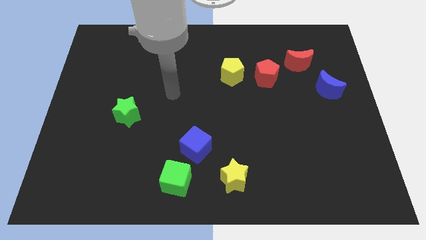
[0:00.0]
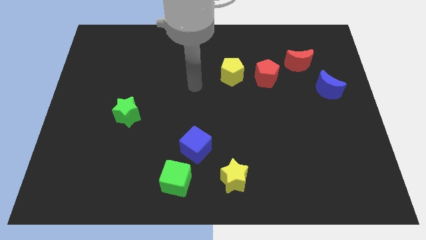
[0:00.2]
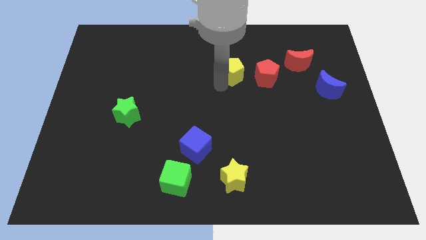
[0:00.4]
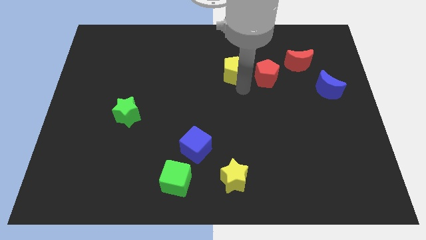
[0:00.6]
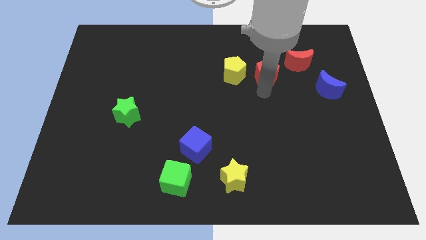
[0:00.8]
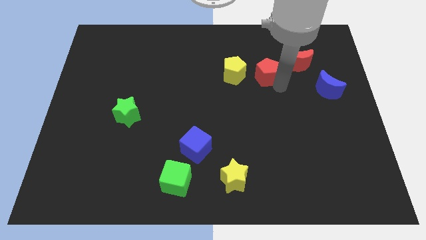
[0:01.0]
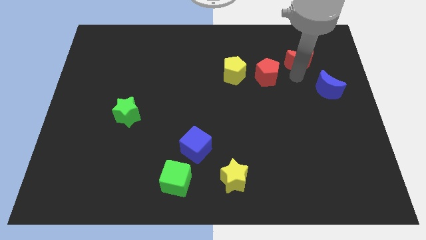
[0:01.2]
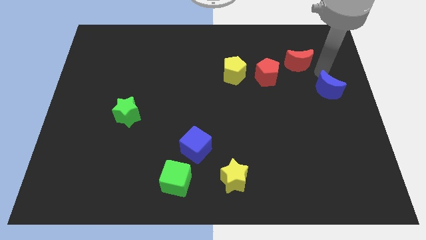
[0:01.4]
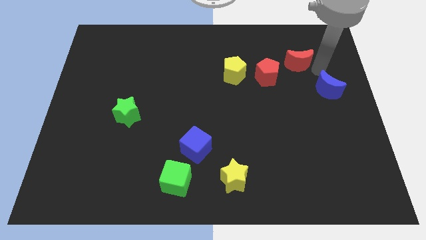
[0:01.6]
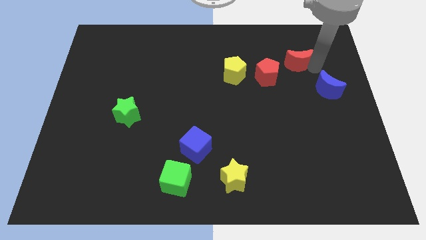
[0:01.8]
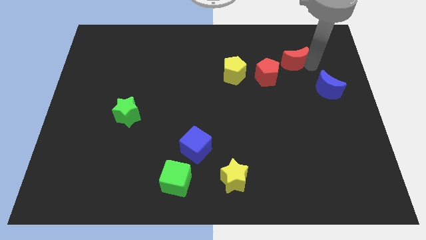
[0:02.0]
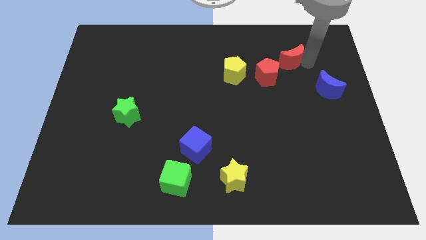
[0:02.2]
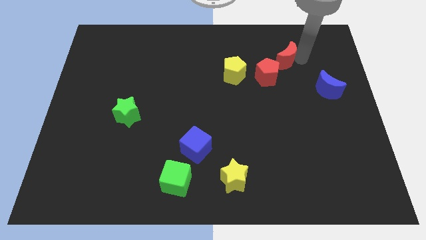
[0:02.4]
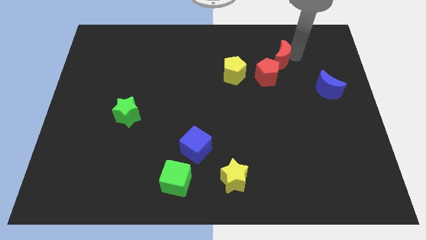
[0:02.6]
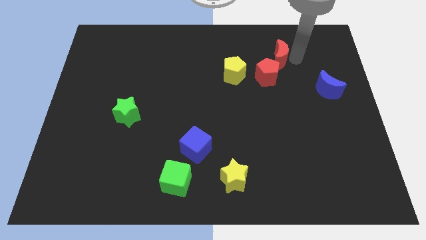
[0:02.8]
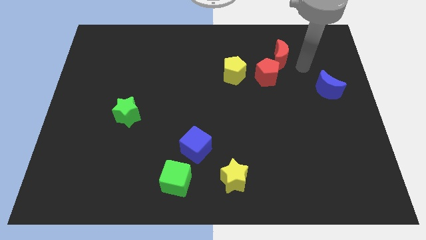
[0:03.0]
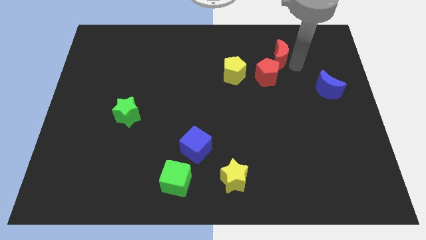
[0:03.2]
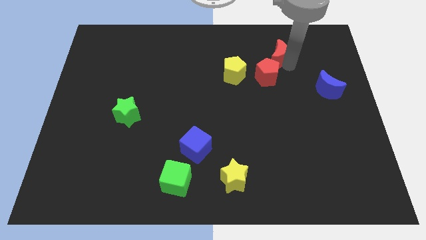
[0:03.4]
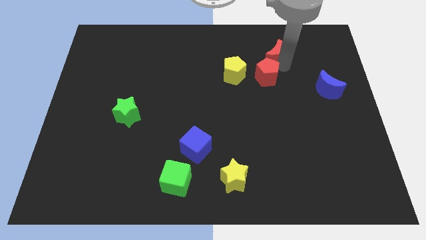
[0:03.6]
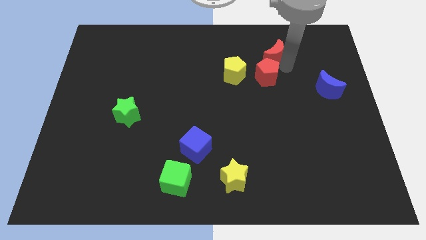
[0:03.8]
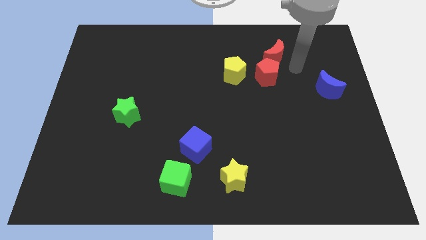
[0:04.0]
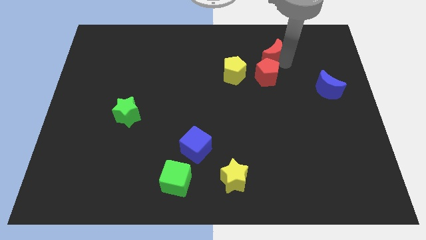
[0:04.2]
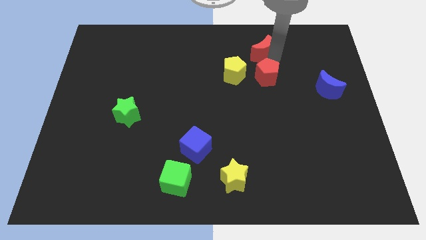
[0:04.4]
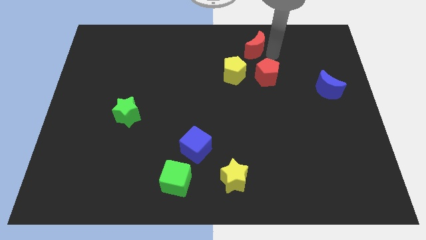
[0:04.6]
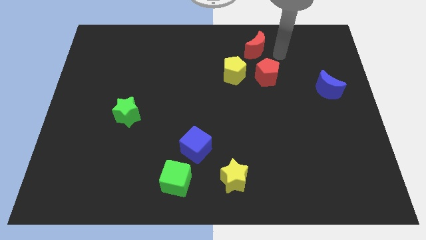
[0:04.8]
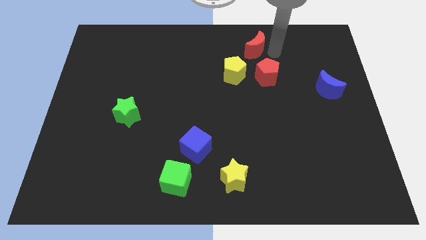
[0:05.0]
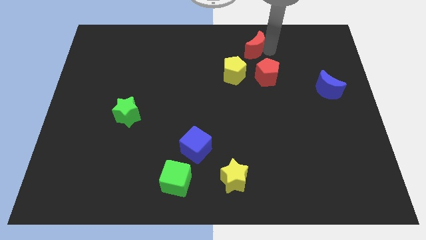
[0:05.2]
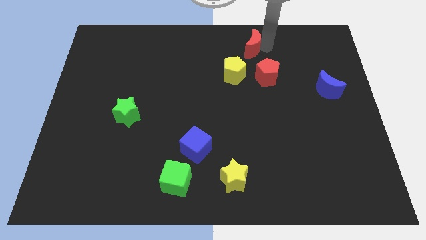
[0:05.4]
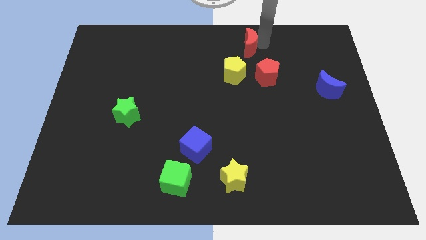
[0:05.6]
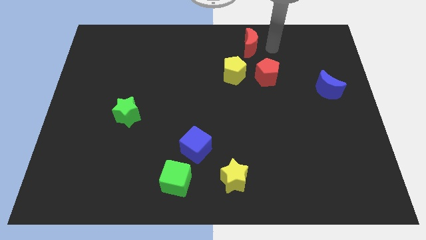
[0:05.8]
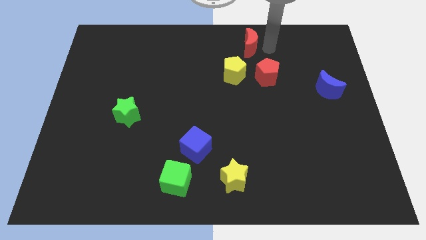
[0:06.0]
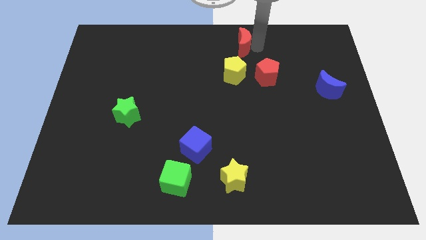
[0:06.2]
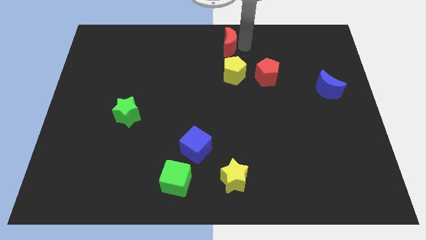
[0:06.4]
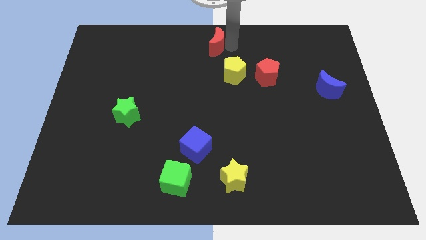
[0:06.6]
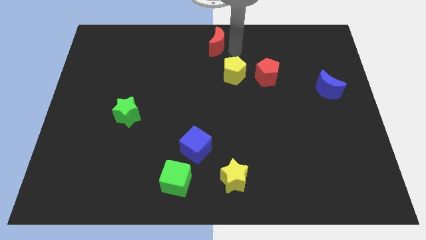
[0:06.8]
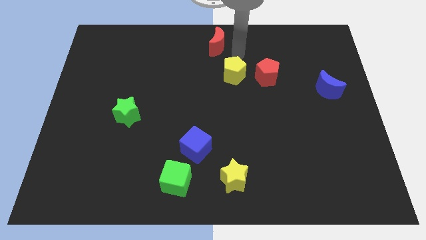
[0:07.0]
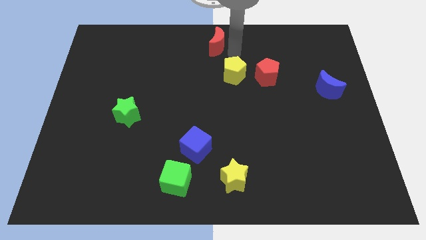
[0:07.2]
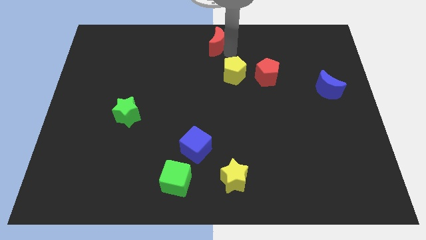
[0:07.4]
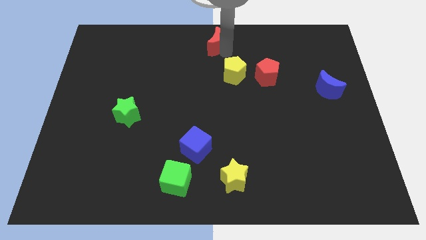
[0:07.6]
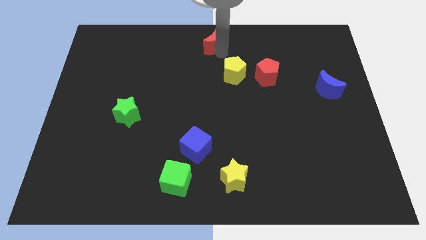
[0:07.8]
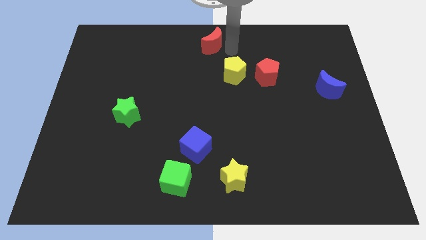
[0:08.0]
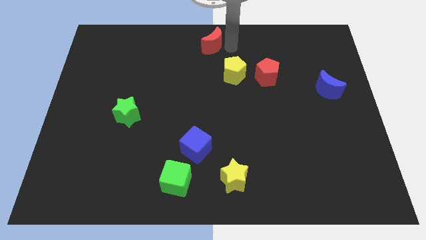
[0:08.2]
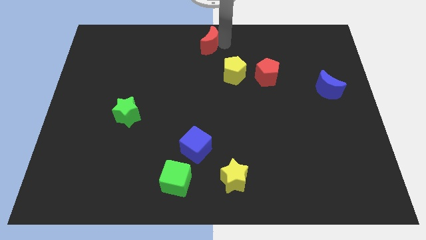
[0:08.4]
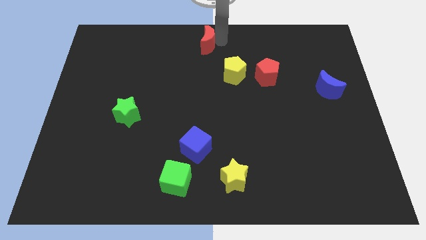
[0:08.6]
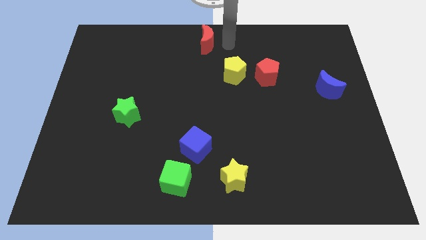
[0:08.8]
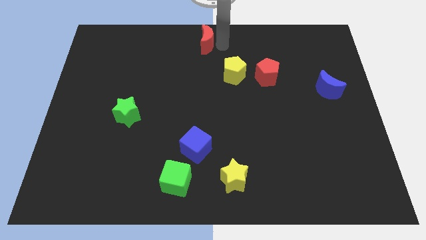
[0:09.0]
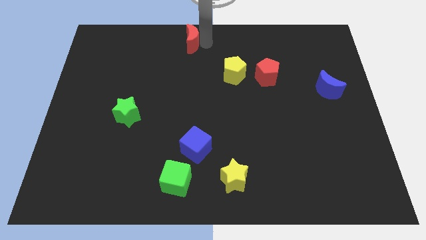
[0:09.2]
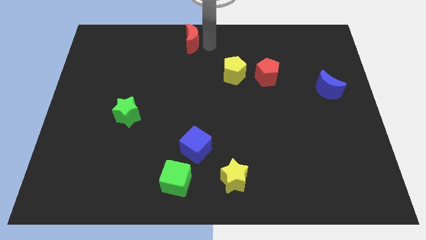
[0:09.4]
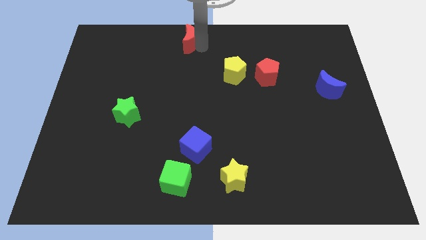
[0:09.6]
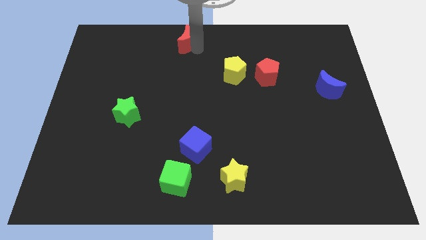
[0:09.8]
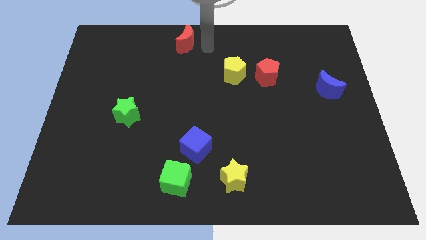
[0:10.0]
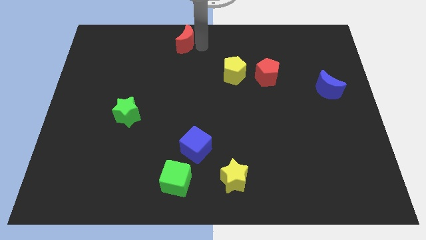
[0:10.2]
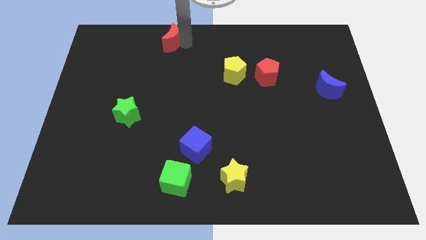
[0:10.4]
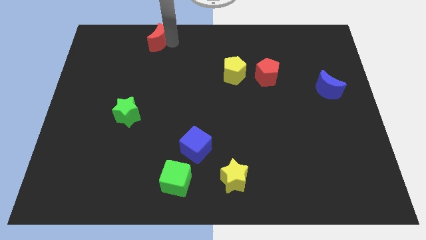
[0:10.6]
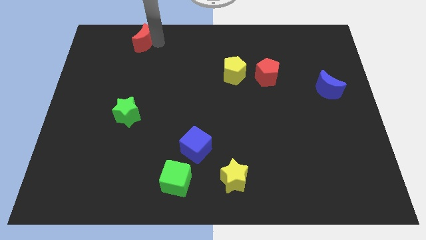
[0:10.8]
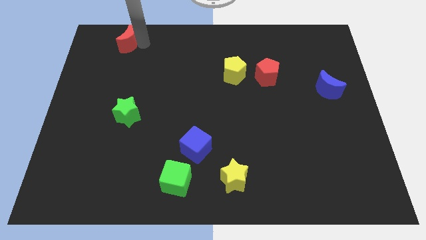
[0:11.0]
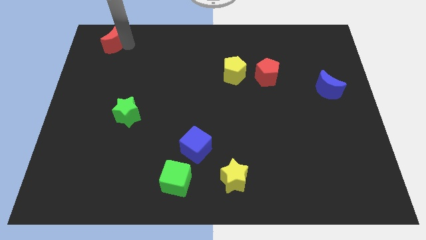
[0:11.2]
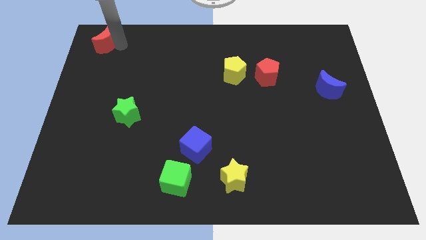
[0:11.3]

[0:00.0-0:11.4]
move the red moon to the top left corner
